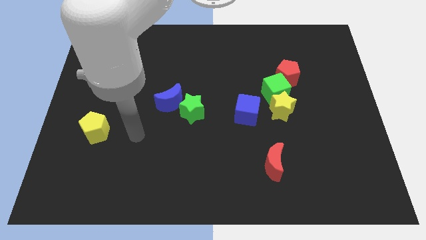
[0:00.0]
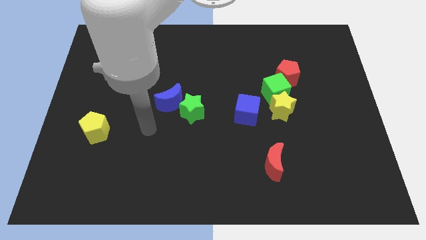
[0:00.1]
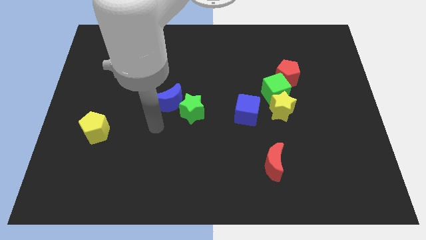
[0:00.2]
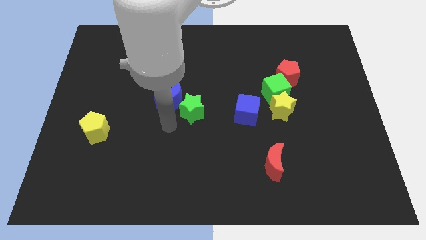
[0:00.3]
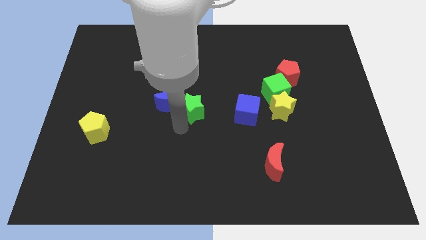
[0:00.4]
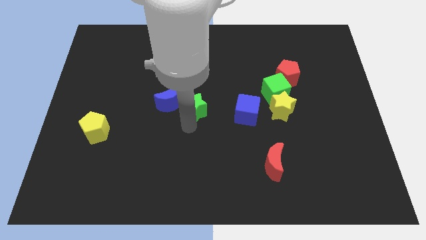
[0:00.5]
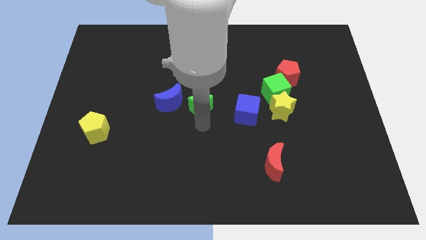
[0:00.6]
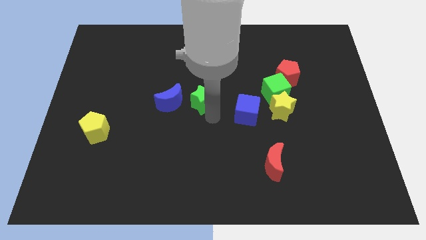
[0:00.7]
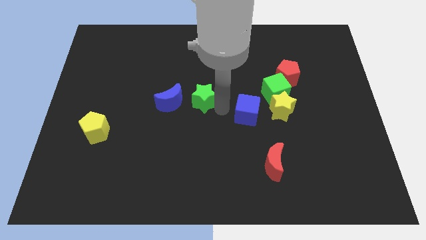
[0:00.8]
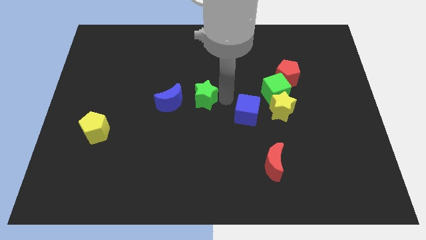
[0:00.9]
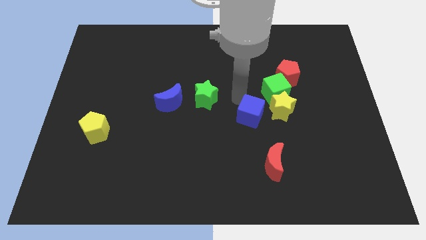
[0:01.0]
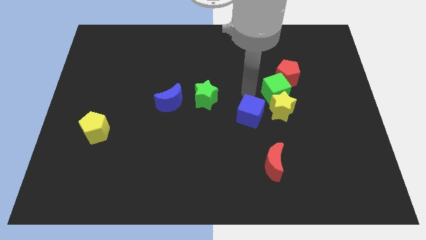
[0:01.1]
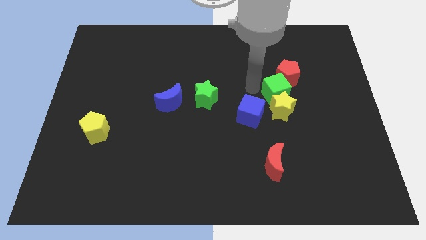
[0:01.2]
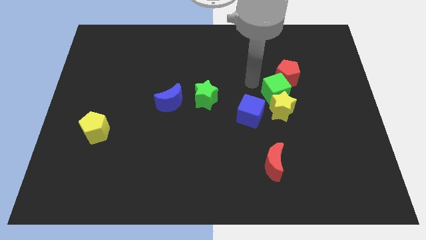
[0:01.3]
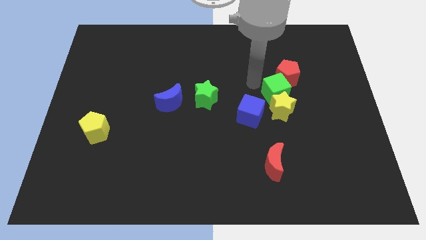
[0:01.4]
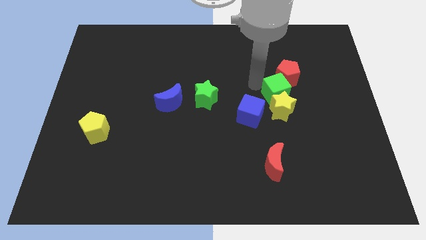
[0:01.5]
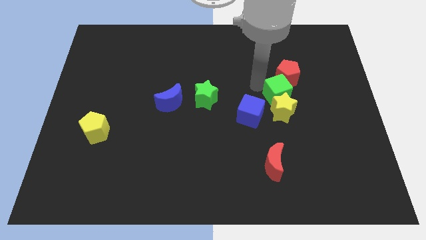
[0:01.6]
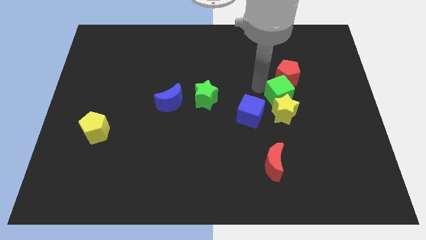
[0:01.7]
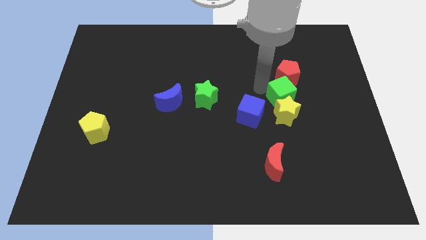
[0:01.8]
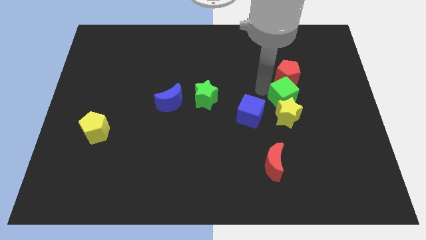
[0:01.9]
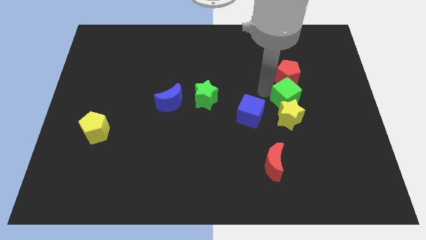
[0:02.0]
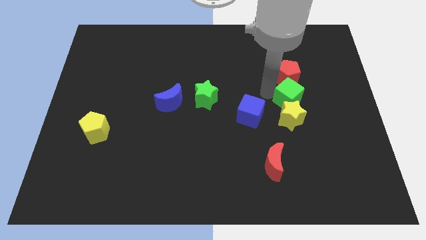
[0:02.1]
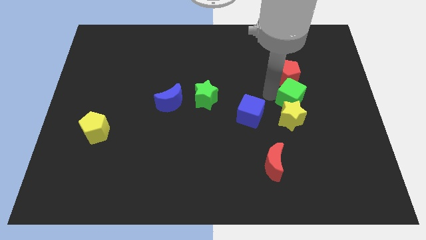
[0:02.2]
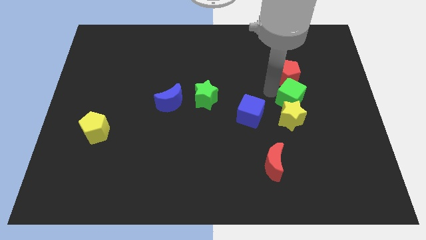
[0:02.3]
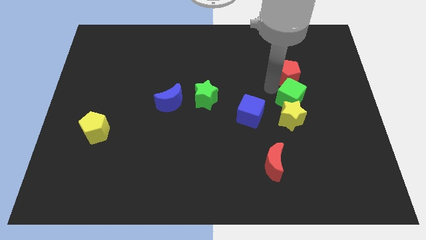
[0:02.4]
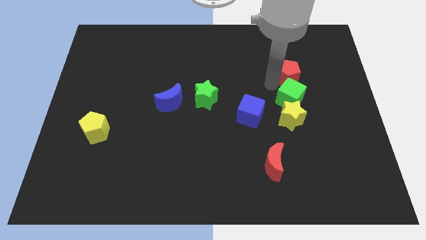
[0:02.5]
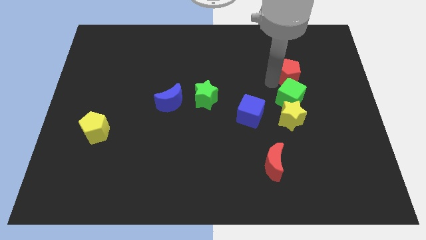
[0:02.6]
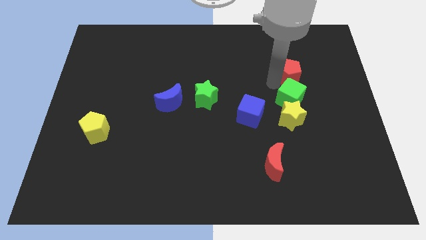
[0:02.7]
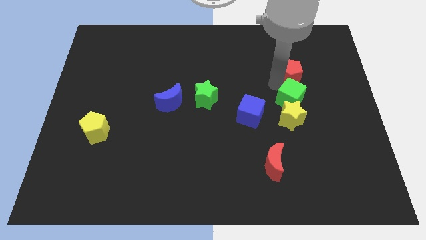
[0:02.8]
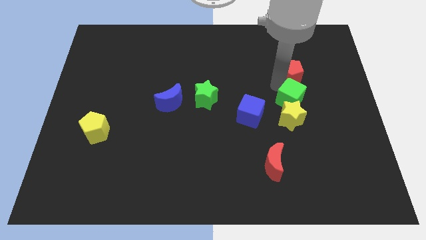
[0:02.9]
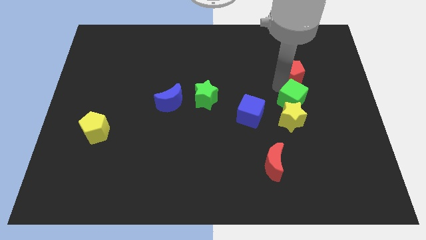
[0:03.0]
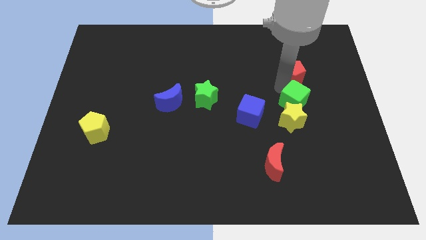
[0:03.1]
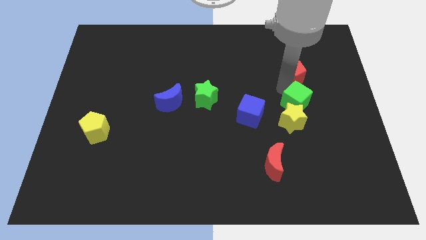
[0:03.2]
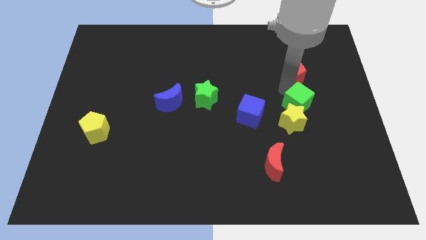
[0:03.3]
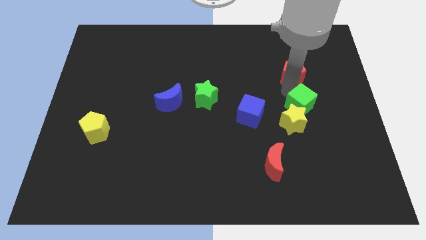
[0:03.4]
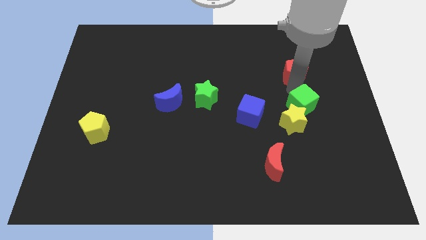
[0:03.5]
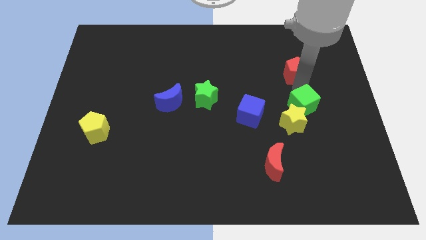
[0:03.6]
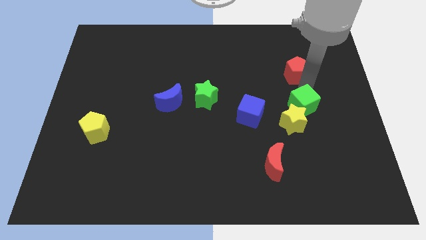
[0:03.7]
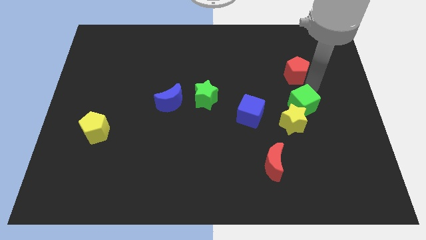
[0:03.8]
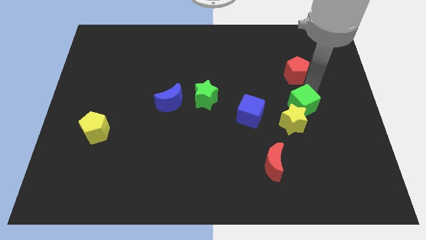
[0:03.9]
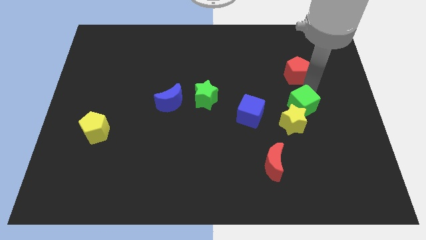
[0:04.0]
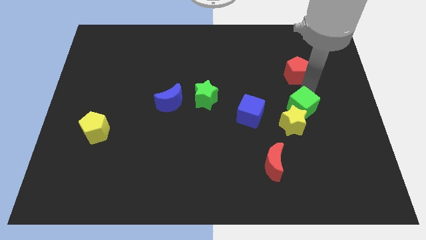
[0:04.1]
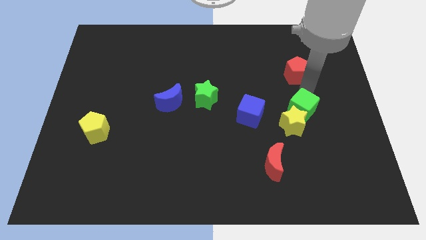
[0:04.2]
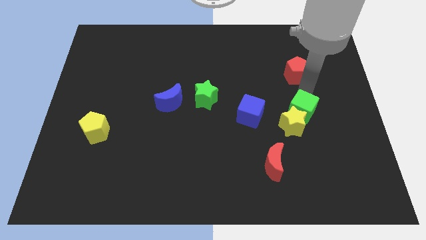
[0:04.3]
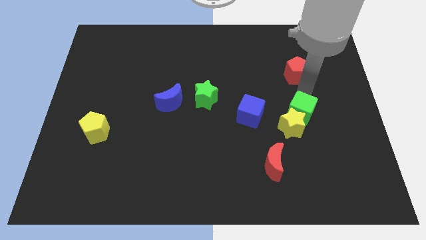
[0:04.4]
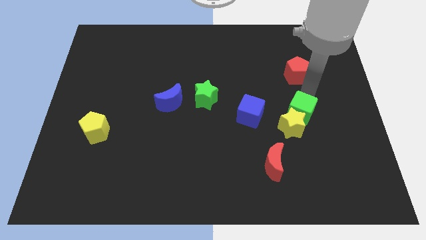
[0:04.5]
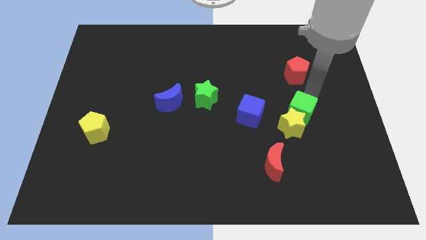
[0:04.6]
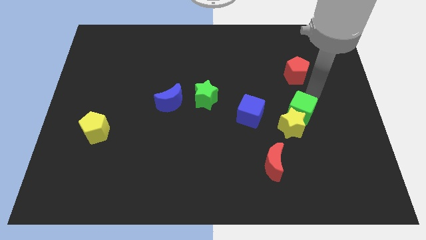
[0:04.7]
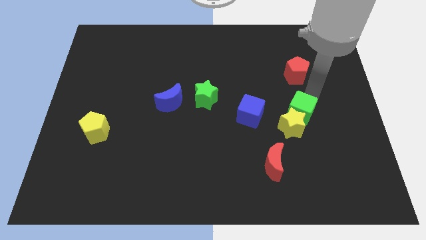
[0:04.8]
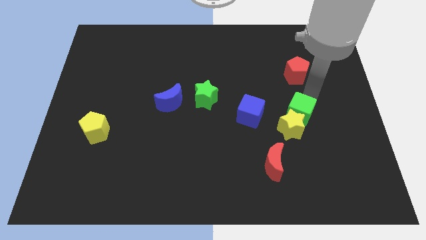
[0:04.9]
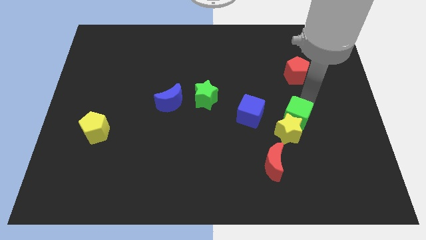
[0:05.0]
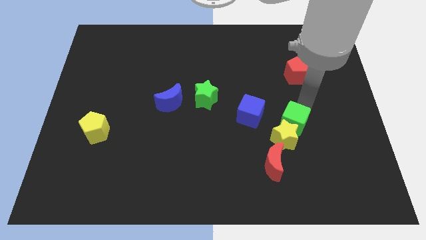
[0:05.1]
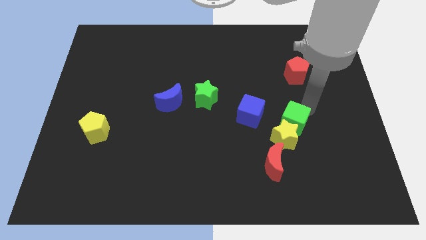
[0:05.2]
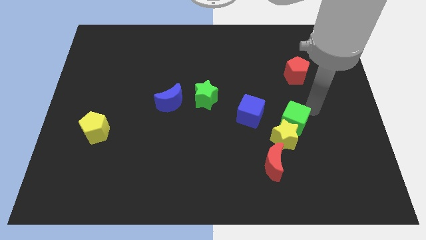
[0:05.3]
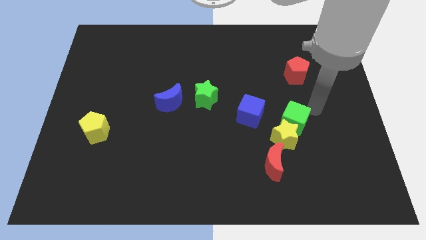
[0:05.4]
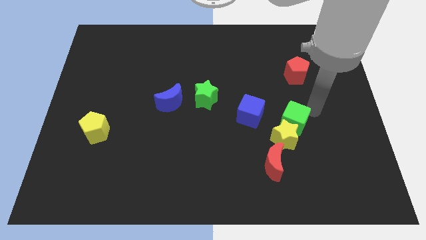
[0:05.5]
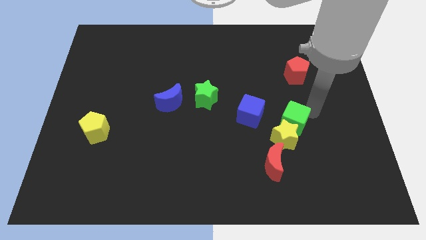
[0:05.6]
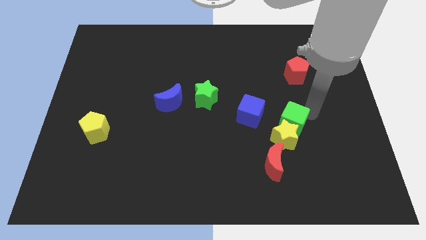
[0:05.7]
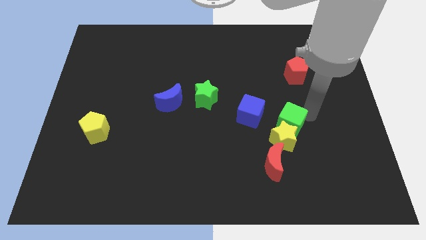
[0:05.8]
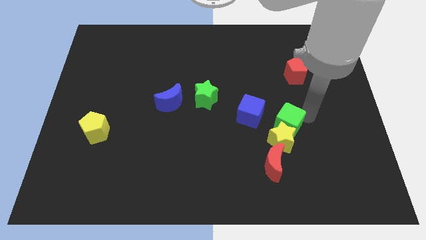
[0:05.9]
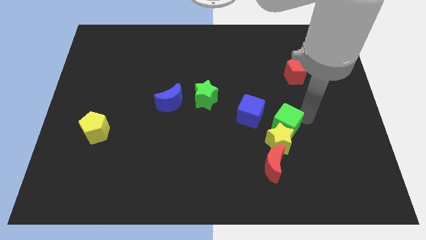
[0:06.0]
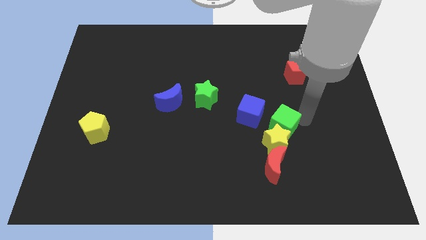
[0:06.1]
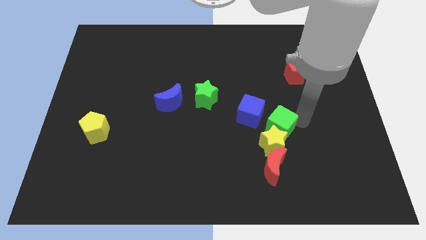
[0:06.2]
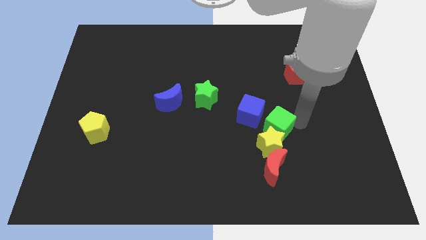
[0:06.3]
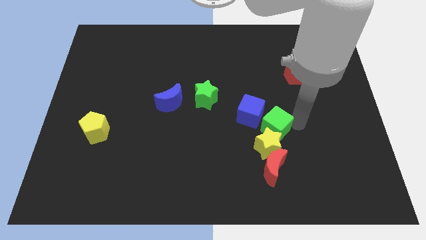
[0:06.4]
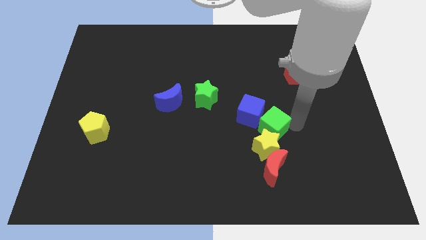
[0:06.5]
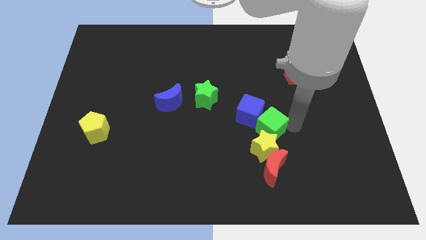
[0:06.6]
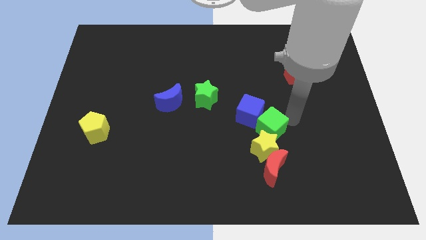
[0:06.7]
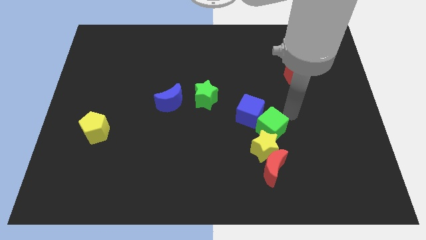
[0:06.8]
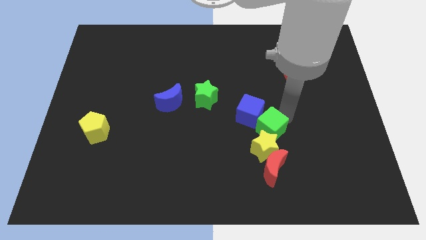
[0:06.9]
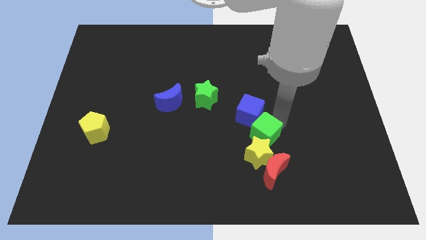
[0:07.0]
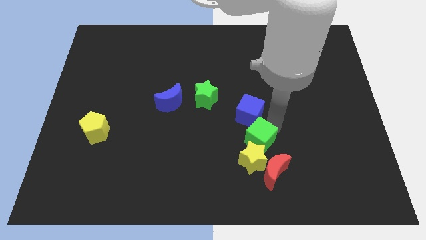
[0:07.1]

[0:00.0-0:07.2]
push the green cube to the top left side of the red moon

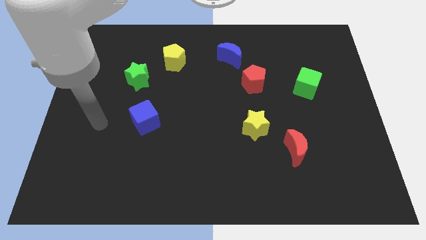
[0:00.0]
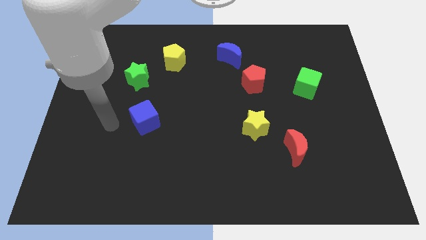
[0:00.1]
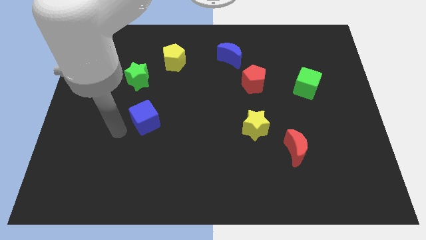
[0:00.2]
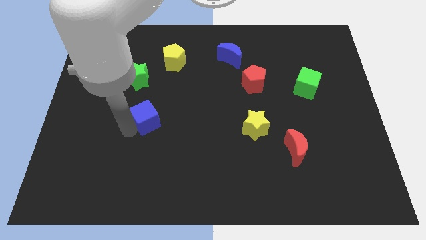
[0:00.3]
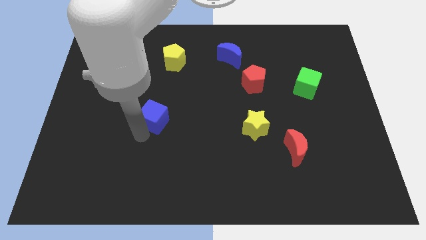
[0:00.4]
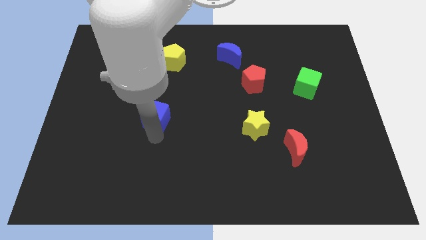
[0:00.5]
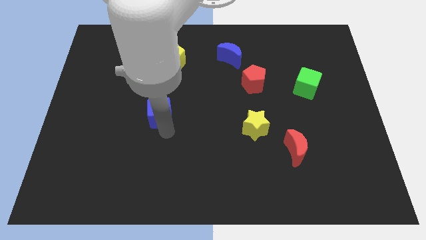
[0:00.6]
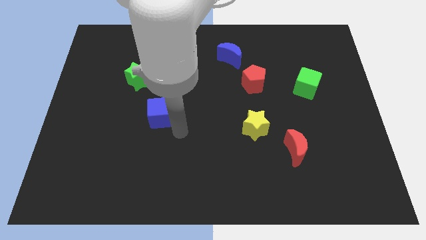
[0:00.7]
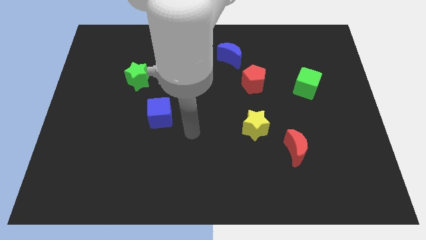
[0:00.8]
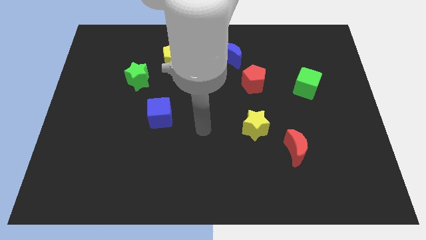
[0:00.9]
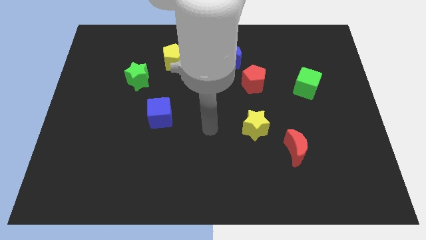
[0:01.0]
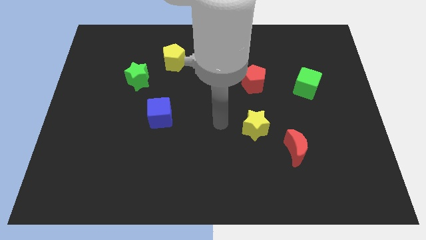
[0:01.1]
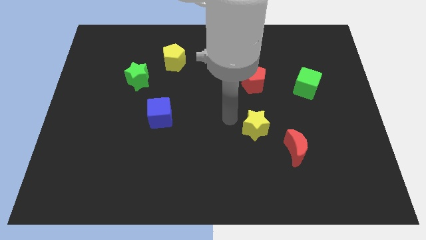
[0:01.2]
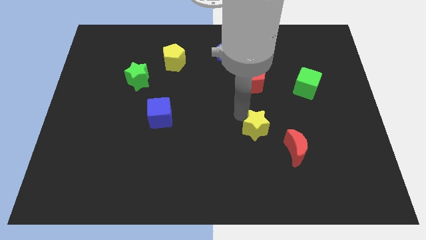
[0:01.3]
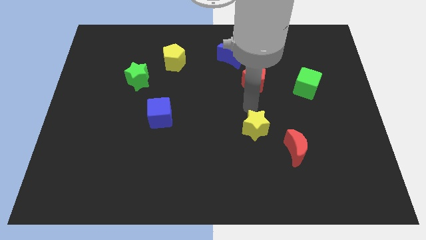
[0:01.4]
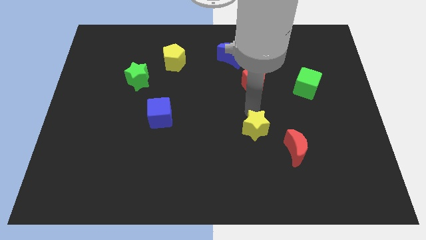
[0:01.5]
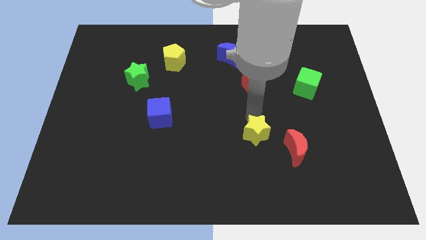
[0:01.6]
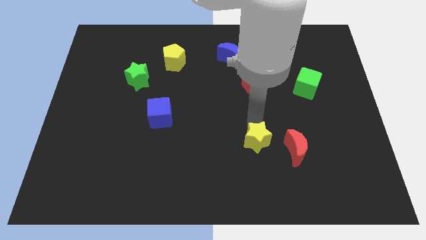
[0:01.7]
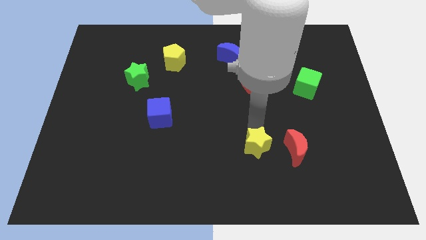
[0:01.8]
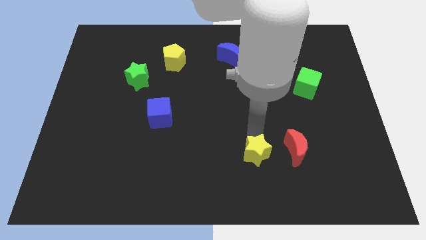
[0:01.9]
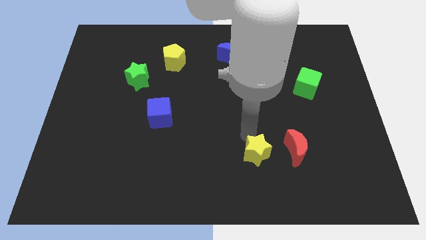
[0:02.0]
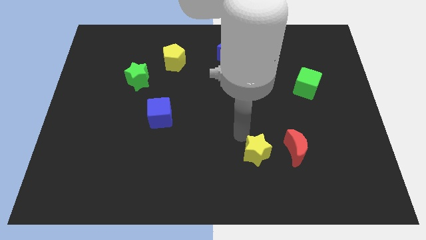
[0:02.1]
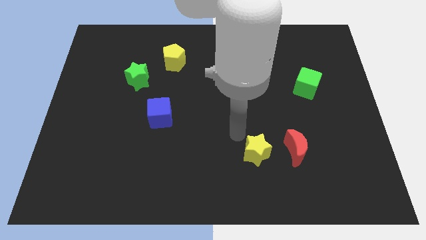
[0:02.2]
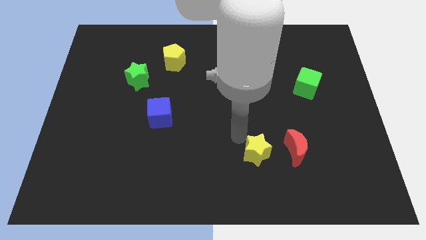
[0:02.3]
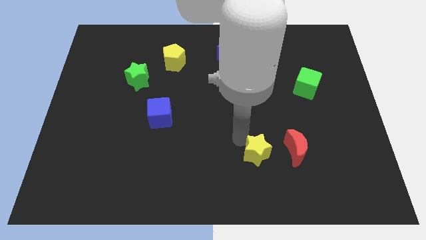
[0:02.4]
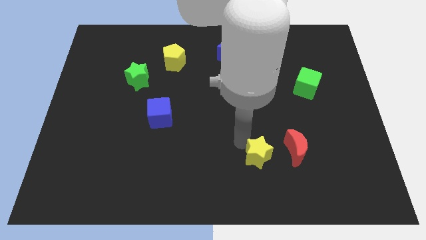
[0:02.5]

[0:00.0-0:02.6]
push the yellow star to the bottom left of the red moon
